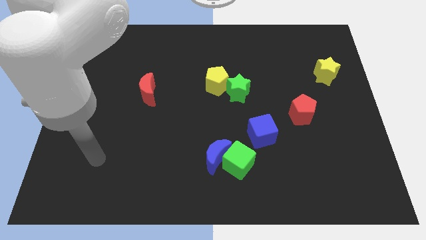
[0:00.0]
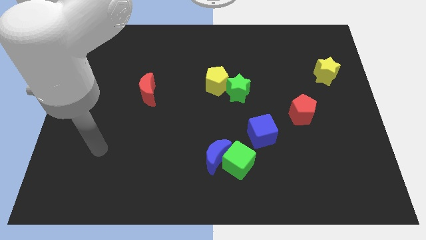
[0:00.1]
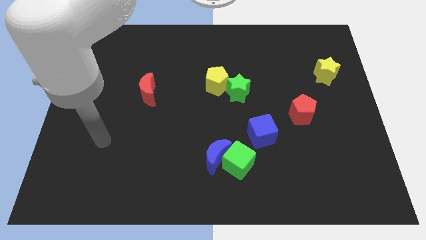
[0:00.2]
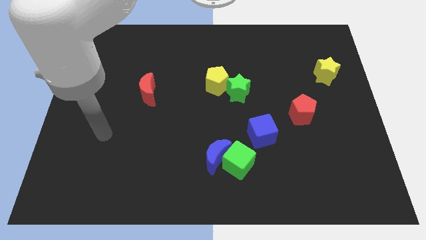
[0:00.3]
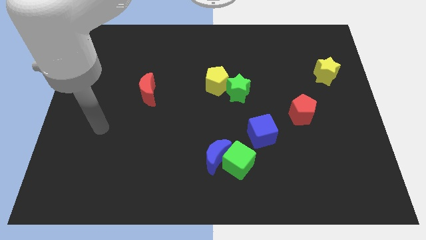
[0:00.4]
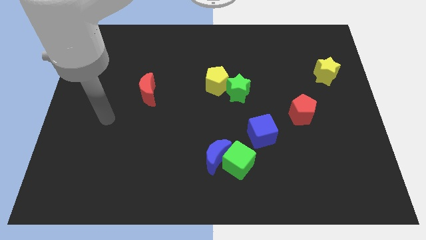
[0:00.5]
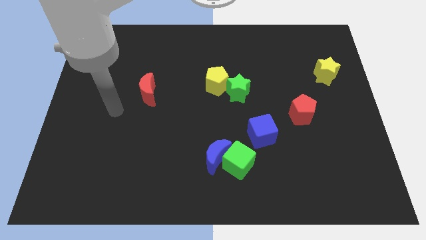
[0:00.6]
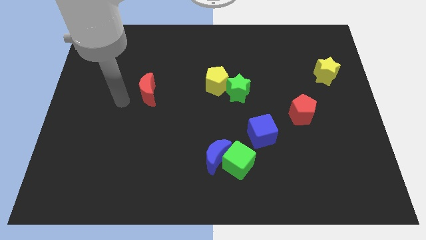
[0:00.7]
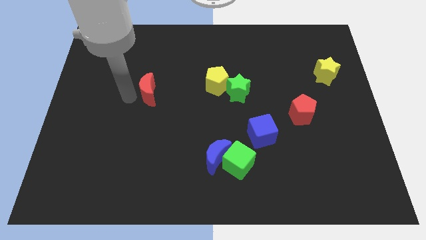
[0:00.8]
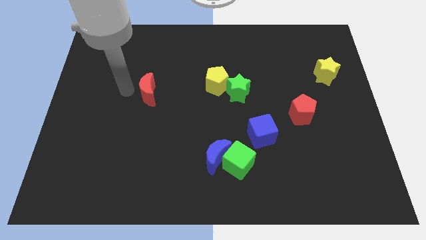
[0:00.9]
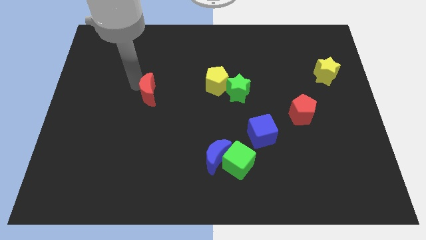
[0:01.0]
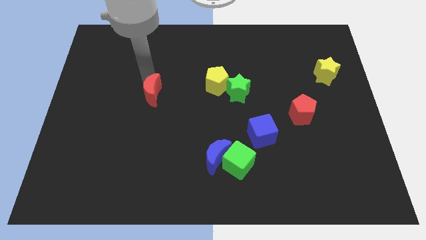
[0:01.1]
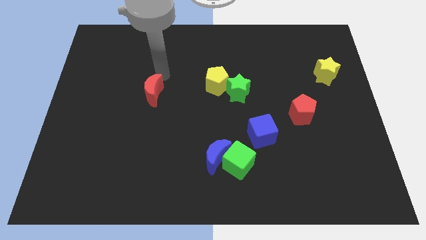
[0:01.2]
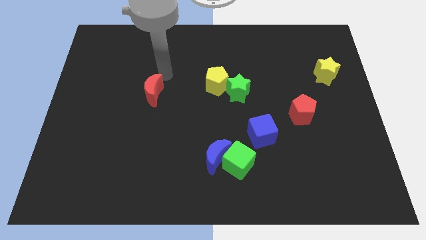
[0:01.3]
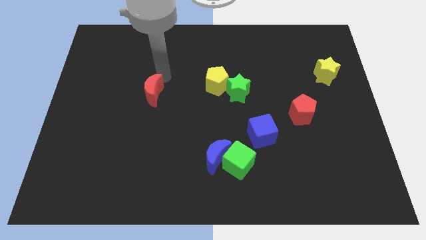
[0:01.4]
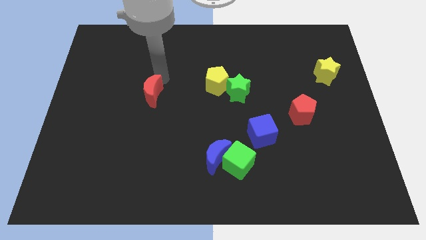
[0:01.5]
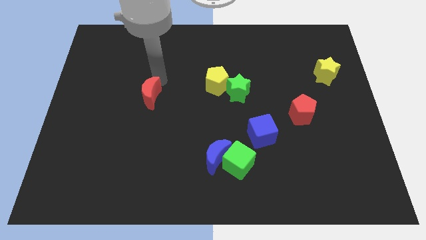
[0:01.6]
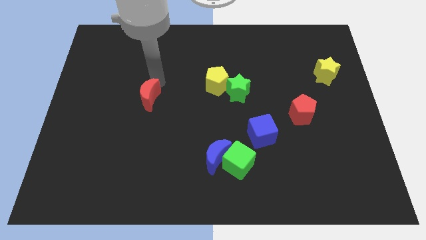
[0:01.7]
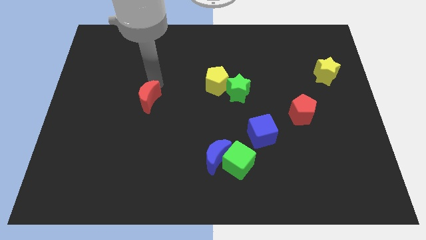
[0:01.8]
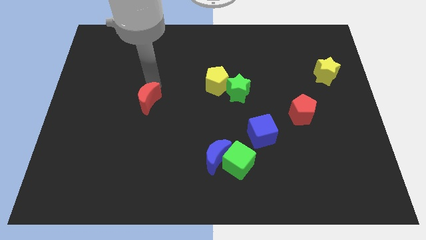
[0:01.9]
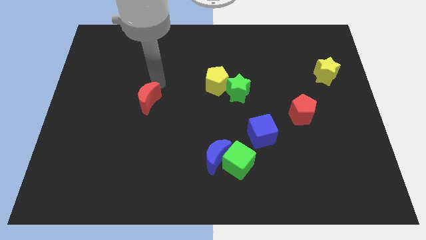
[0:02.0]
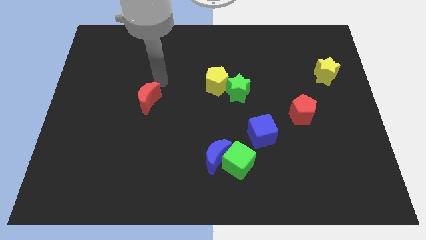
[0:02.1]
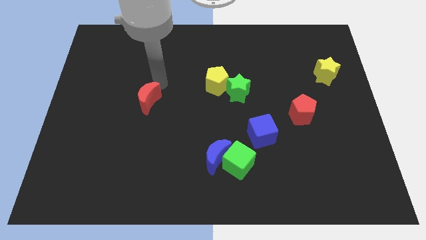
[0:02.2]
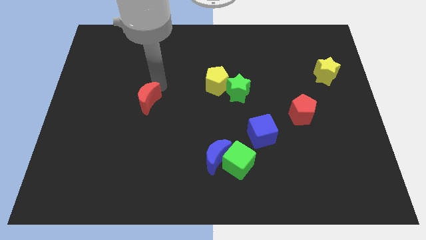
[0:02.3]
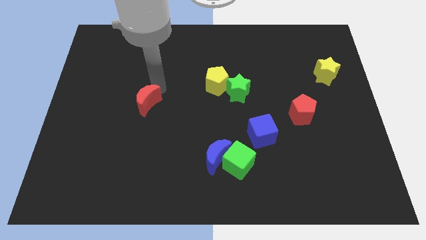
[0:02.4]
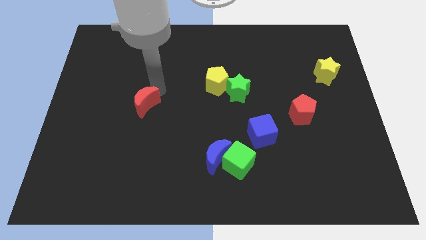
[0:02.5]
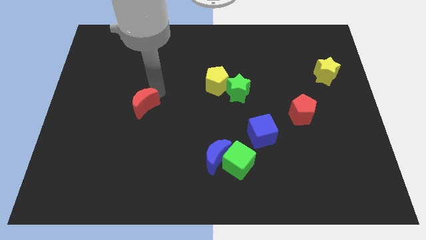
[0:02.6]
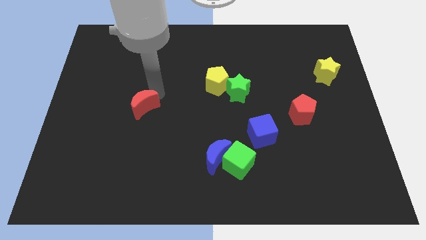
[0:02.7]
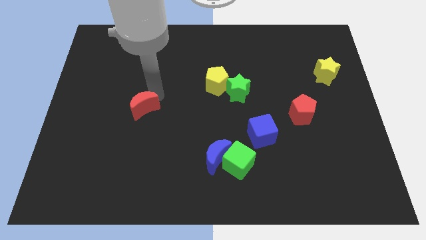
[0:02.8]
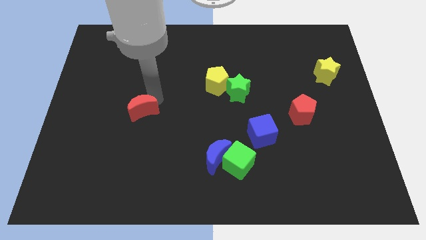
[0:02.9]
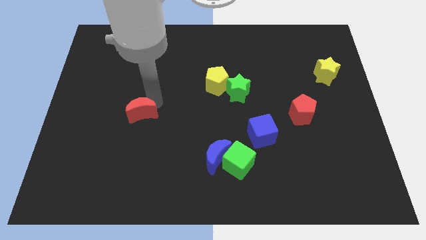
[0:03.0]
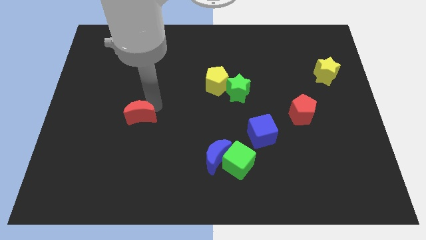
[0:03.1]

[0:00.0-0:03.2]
push the red moon a bit down

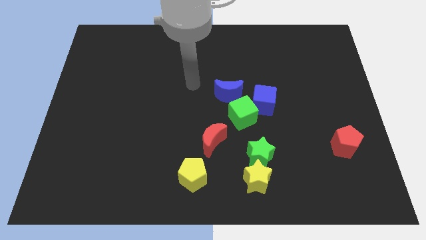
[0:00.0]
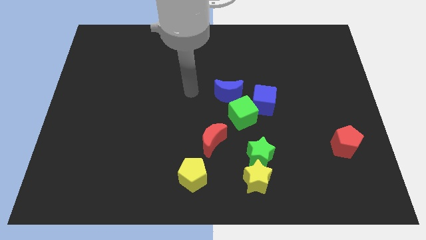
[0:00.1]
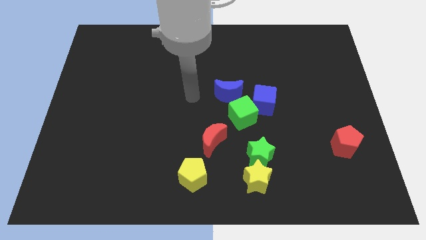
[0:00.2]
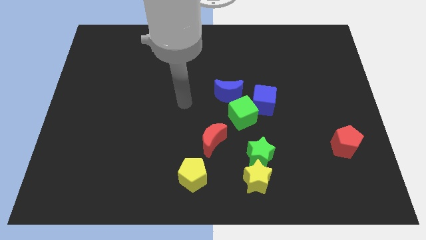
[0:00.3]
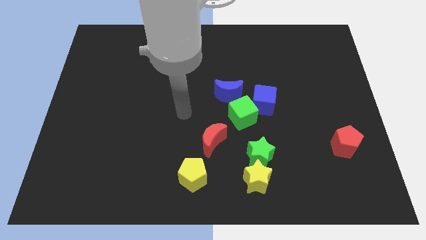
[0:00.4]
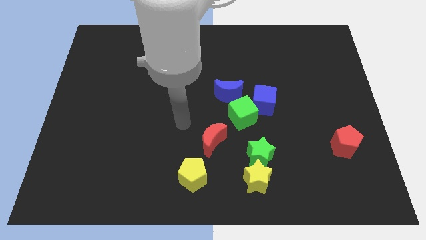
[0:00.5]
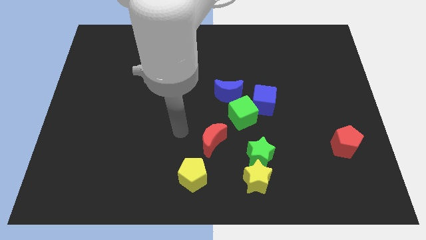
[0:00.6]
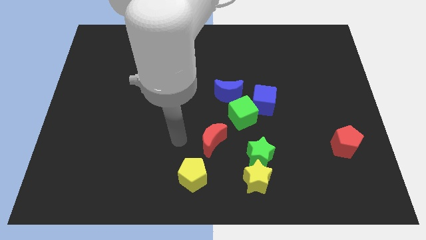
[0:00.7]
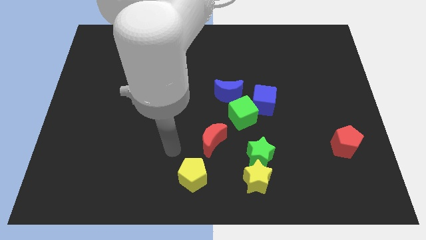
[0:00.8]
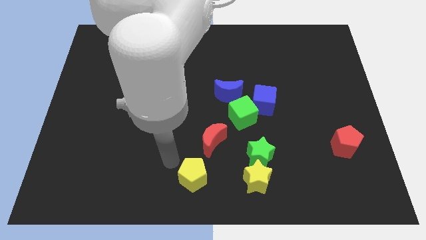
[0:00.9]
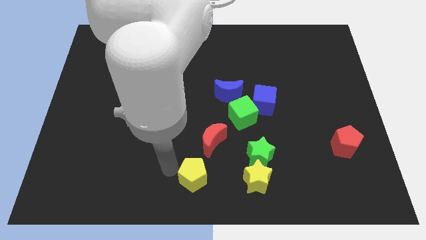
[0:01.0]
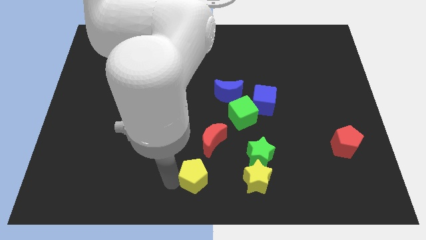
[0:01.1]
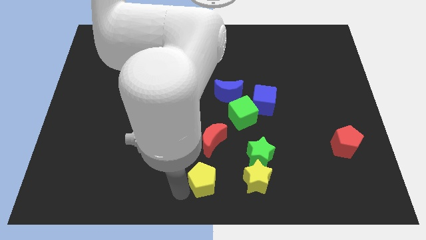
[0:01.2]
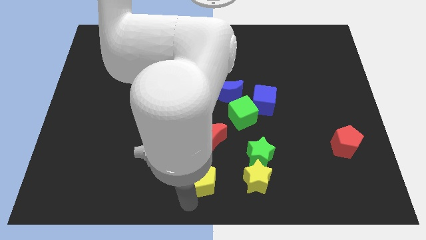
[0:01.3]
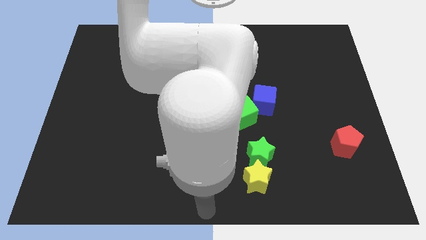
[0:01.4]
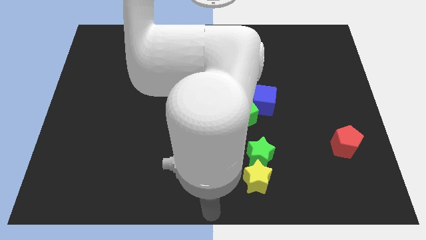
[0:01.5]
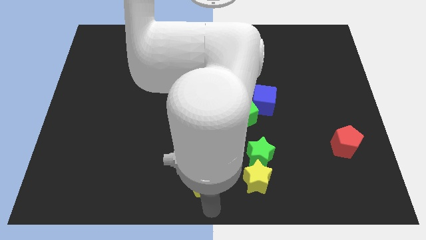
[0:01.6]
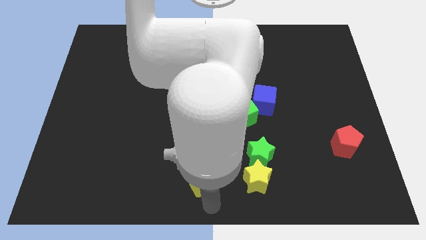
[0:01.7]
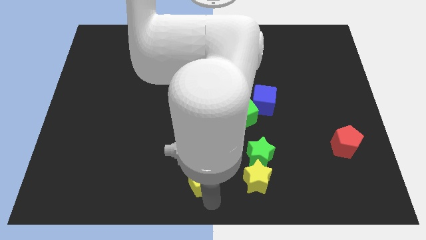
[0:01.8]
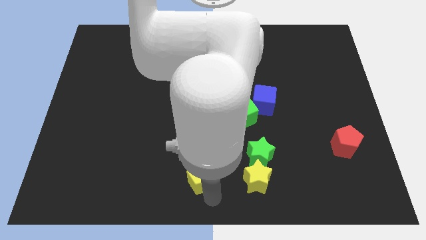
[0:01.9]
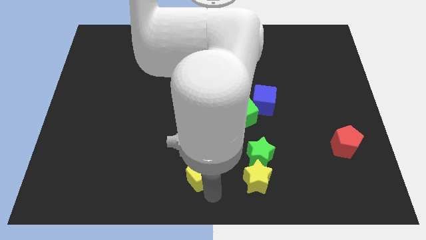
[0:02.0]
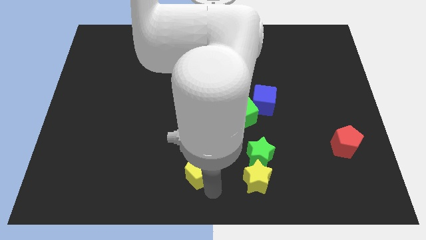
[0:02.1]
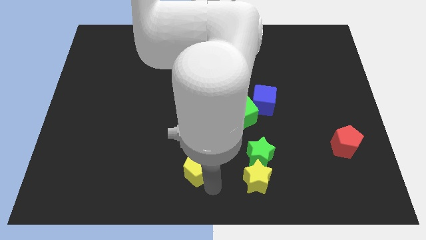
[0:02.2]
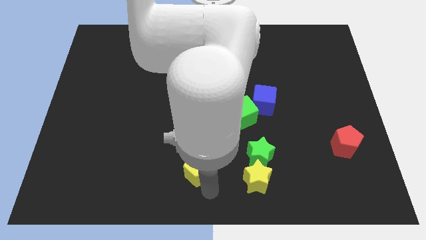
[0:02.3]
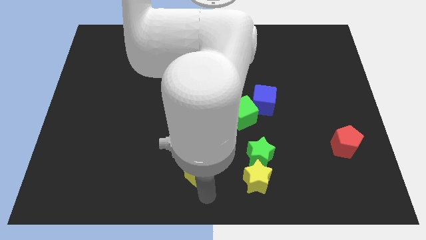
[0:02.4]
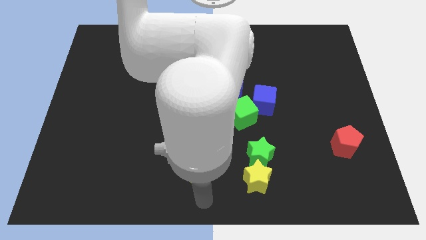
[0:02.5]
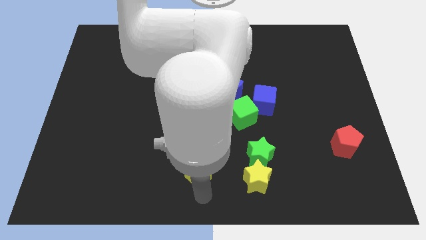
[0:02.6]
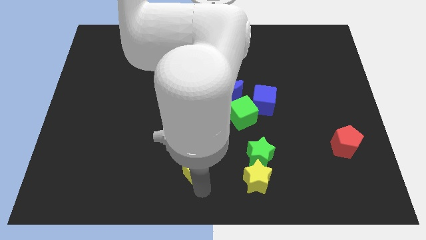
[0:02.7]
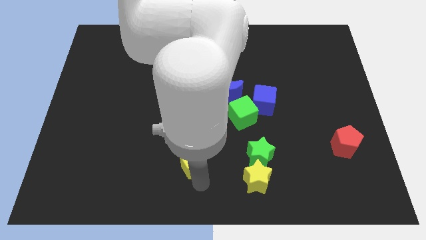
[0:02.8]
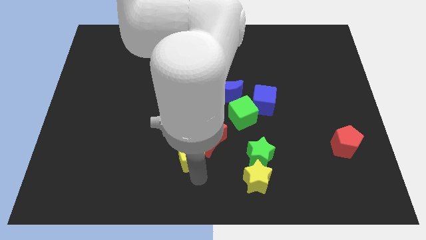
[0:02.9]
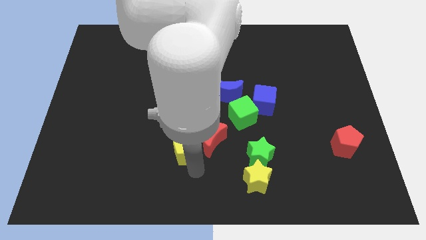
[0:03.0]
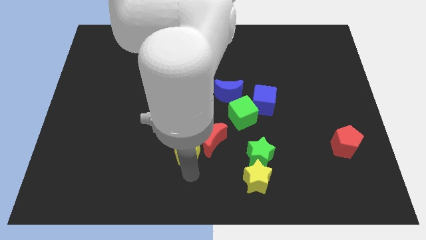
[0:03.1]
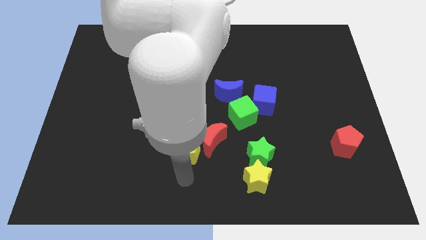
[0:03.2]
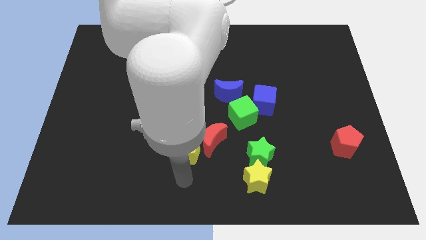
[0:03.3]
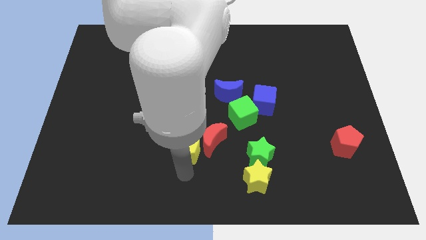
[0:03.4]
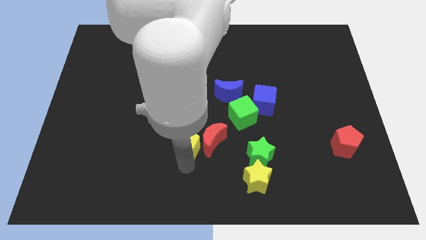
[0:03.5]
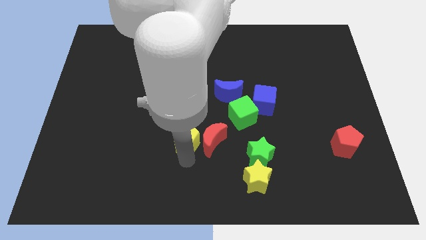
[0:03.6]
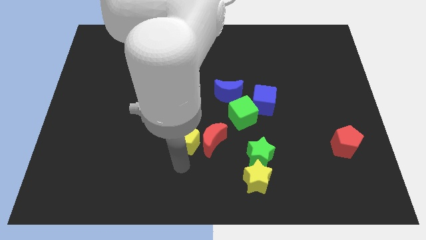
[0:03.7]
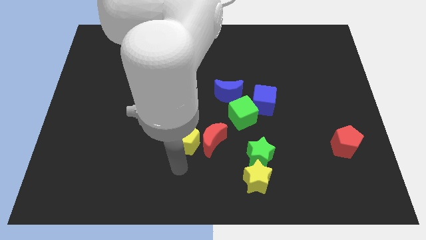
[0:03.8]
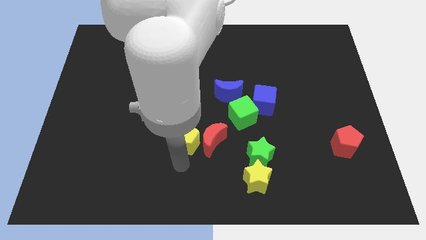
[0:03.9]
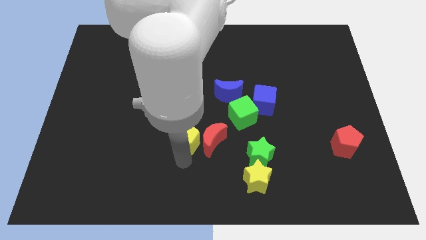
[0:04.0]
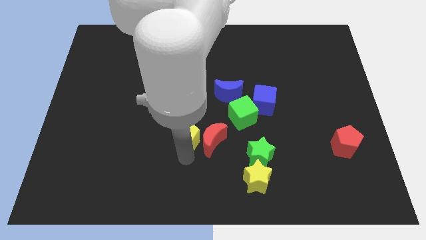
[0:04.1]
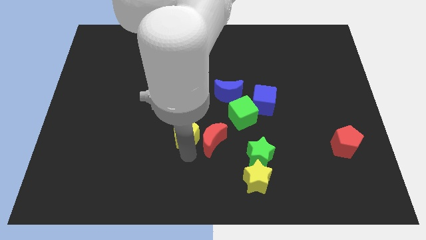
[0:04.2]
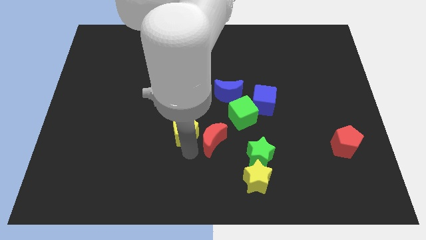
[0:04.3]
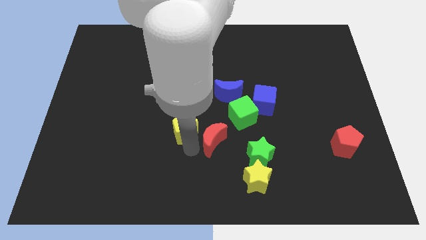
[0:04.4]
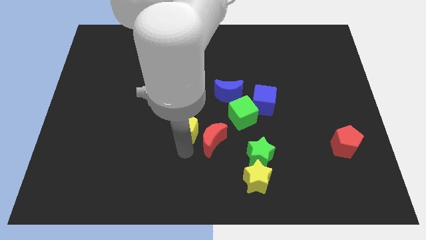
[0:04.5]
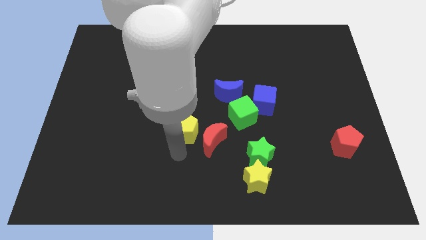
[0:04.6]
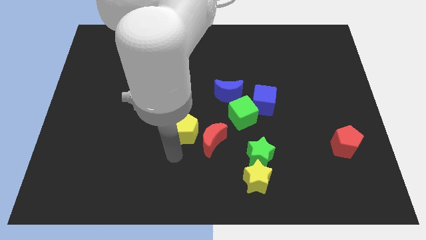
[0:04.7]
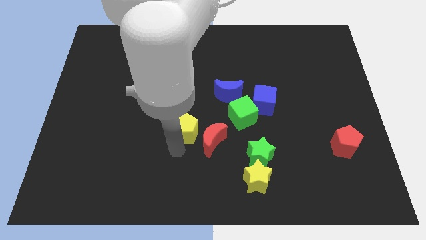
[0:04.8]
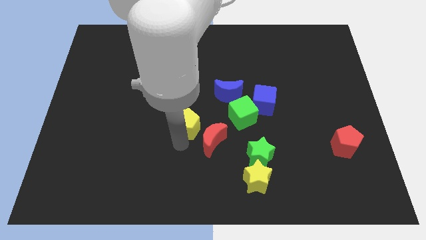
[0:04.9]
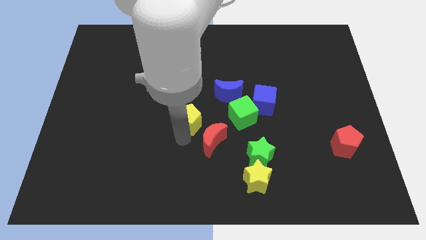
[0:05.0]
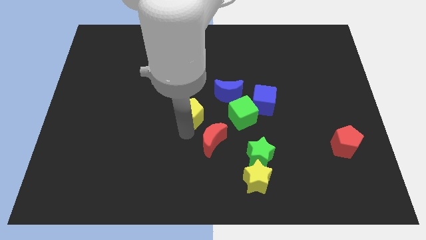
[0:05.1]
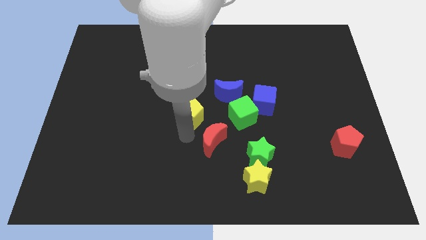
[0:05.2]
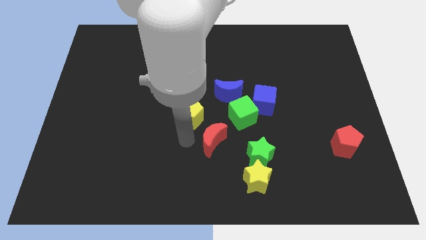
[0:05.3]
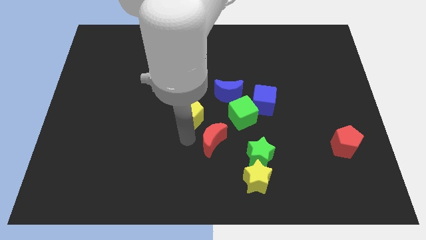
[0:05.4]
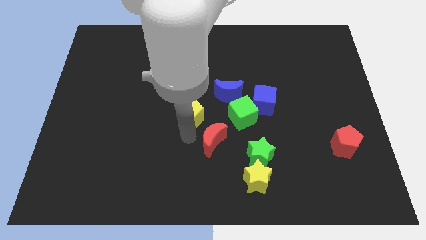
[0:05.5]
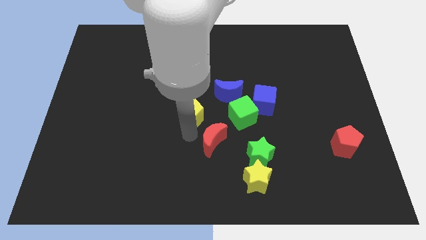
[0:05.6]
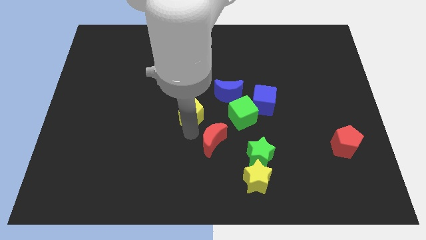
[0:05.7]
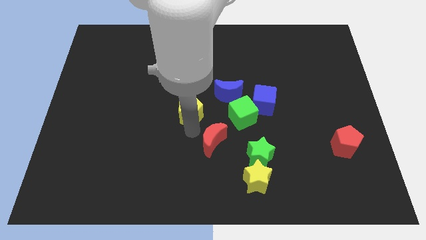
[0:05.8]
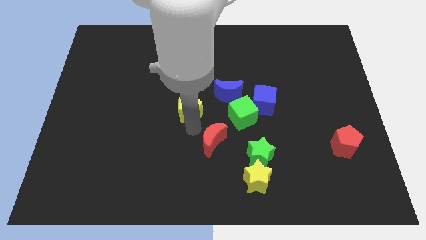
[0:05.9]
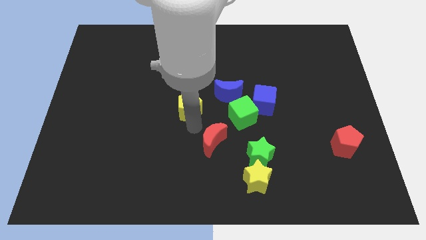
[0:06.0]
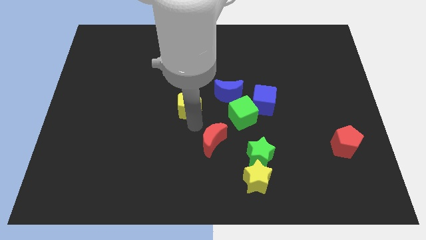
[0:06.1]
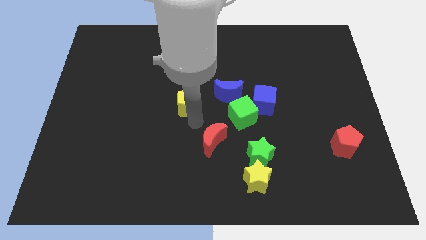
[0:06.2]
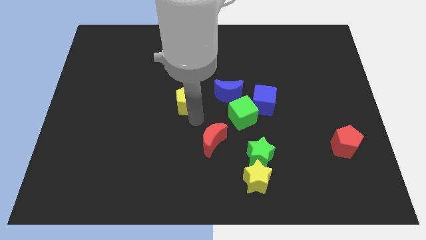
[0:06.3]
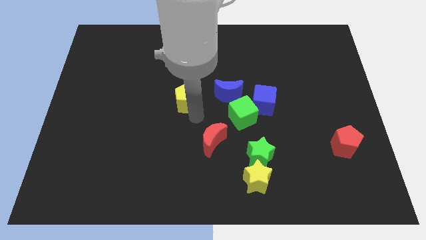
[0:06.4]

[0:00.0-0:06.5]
push the yellow pentagon up
